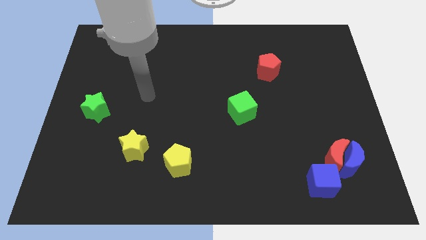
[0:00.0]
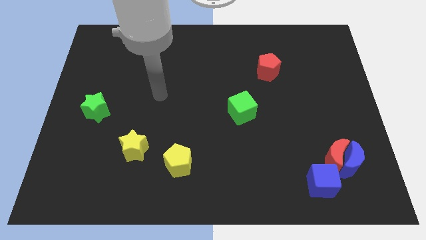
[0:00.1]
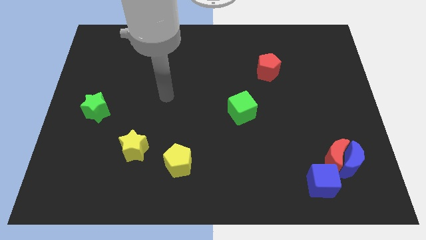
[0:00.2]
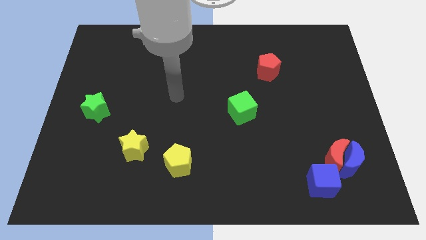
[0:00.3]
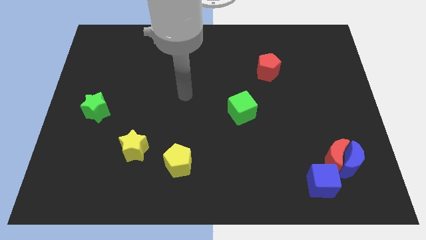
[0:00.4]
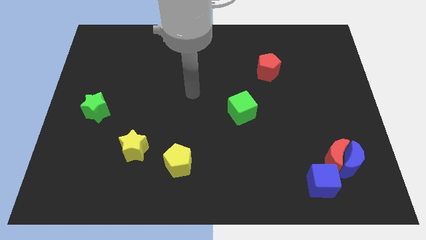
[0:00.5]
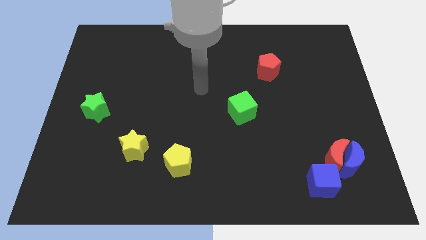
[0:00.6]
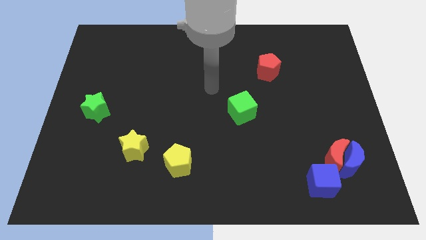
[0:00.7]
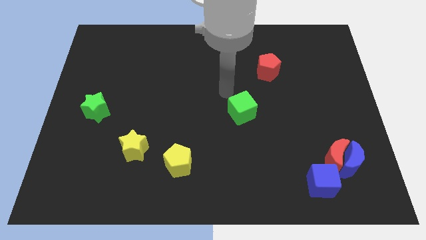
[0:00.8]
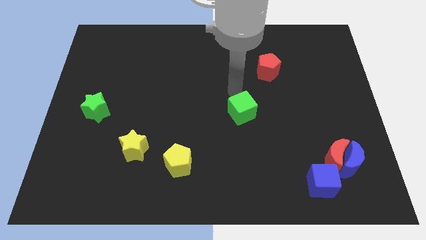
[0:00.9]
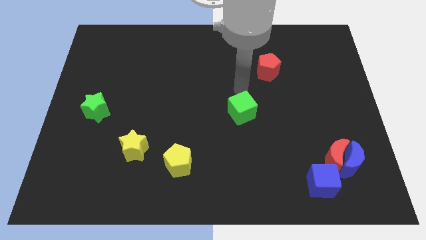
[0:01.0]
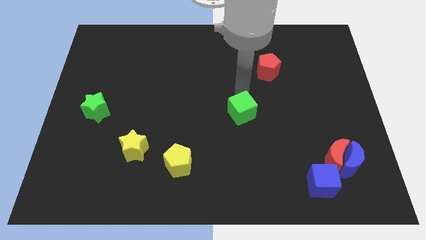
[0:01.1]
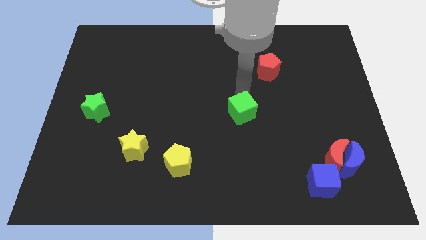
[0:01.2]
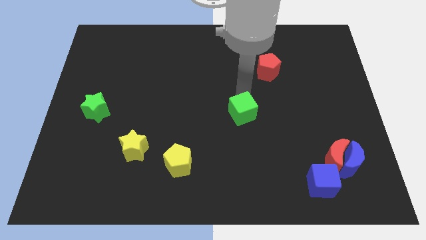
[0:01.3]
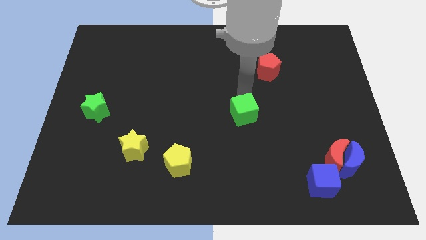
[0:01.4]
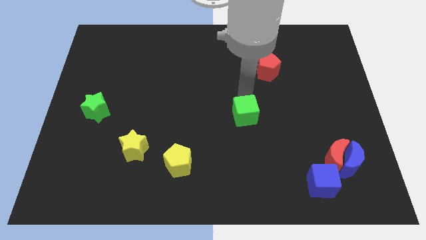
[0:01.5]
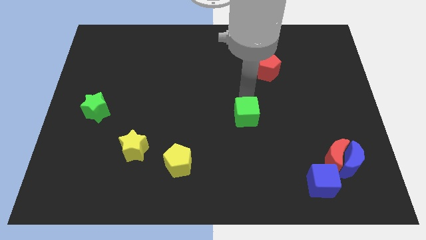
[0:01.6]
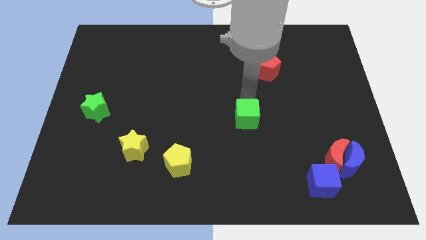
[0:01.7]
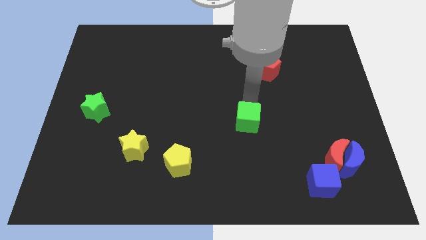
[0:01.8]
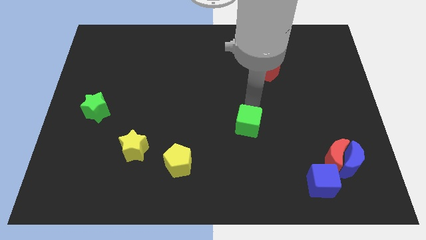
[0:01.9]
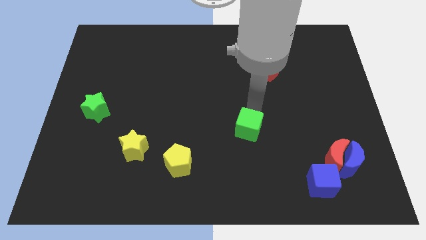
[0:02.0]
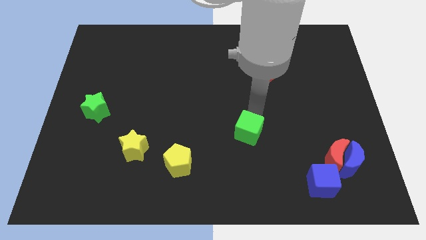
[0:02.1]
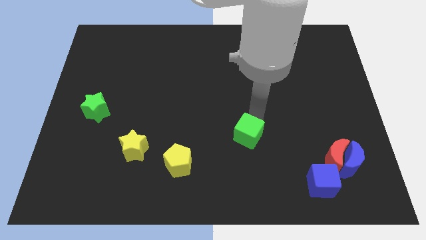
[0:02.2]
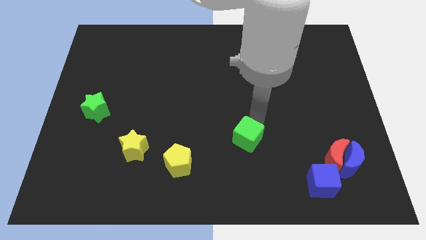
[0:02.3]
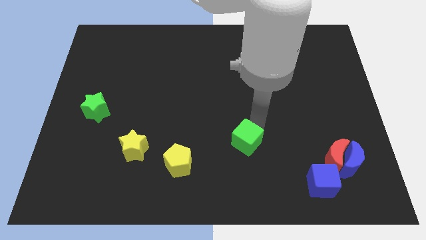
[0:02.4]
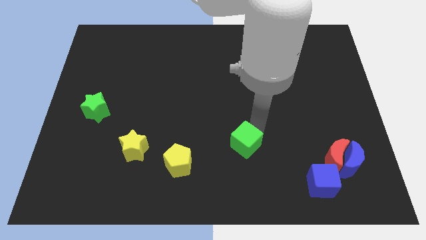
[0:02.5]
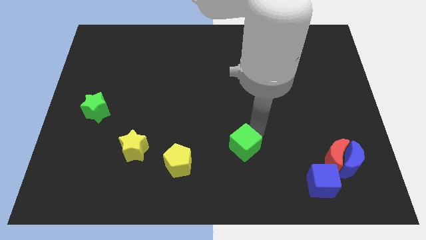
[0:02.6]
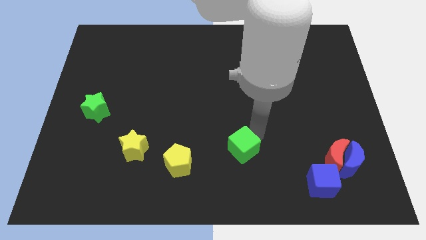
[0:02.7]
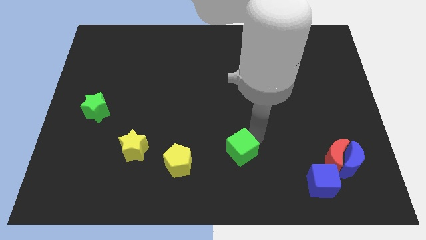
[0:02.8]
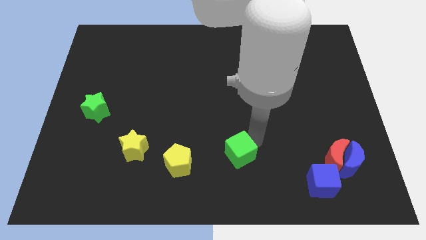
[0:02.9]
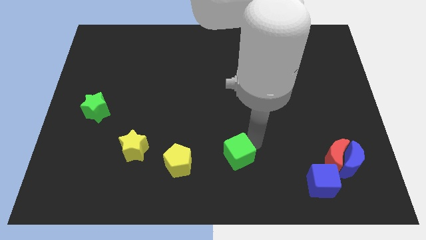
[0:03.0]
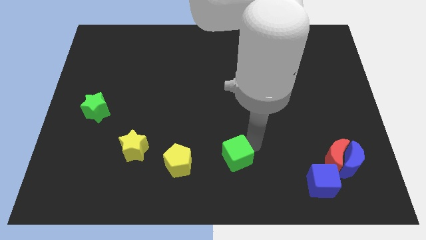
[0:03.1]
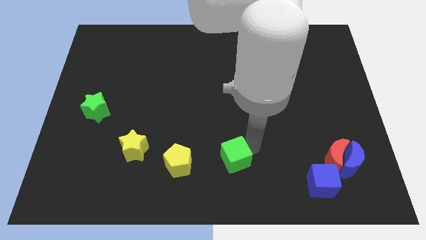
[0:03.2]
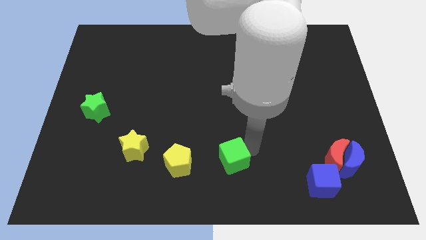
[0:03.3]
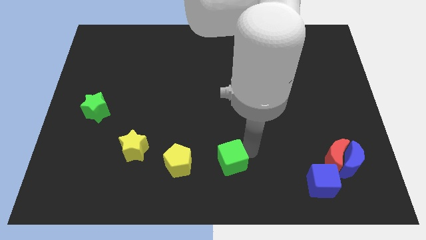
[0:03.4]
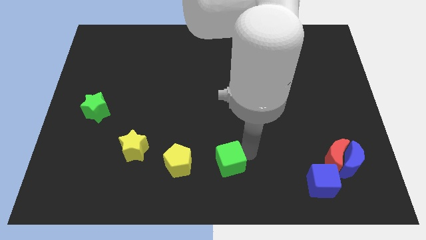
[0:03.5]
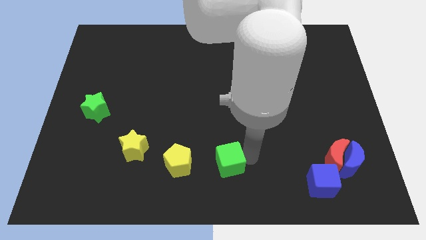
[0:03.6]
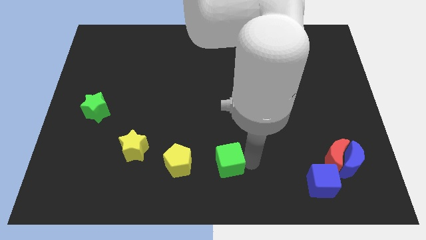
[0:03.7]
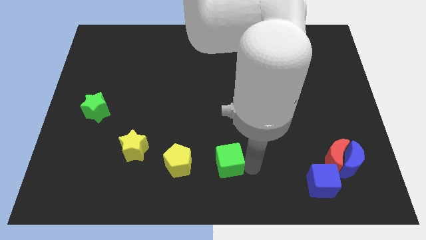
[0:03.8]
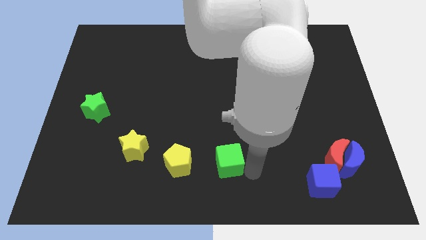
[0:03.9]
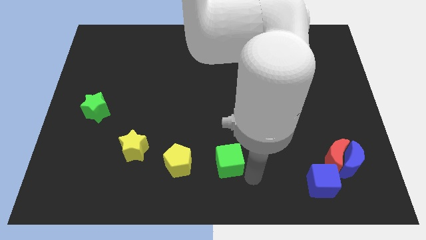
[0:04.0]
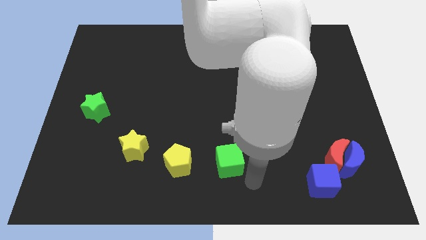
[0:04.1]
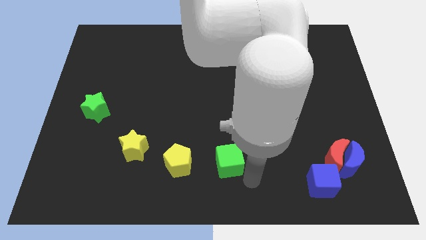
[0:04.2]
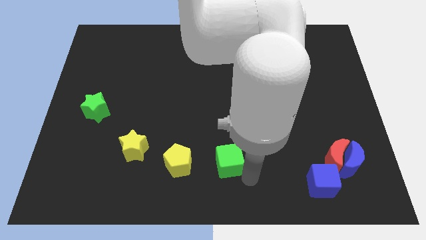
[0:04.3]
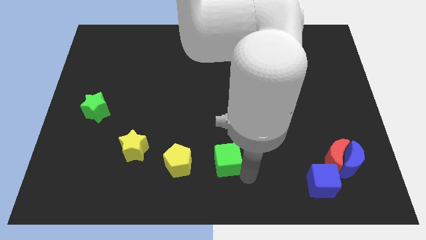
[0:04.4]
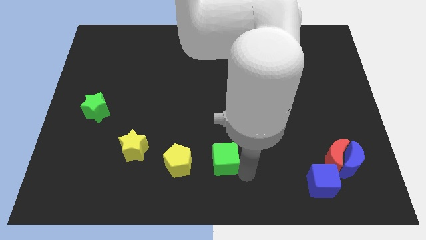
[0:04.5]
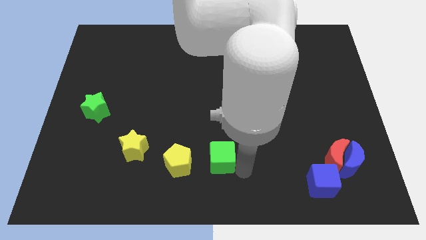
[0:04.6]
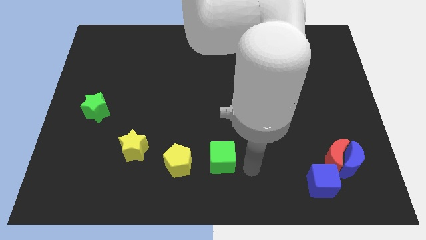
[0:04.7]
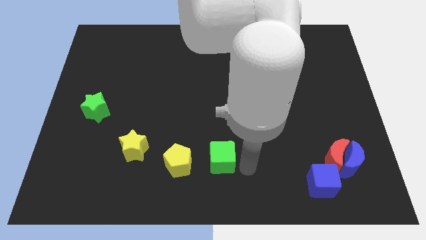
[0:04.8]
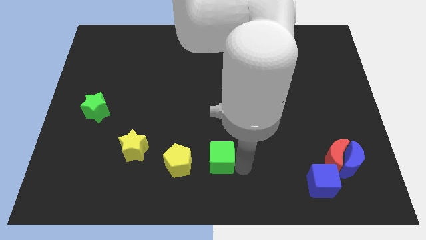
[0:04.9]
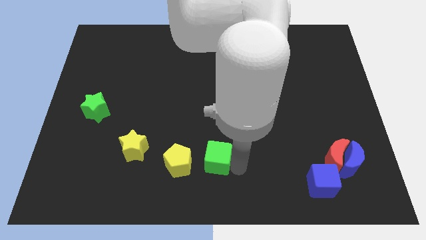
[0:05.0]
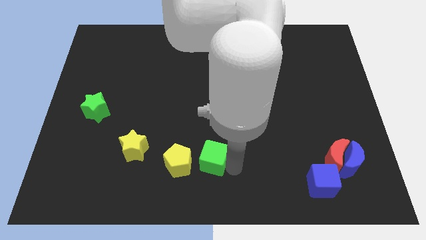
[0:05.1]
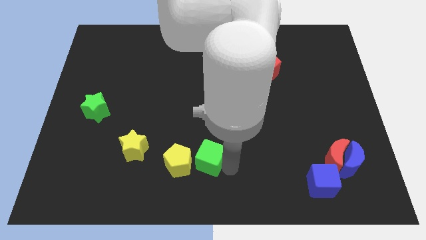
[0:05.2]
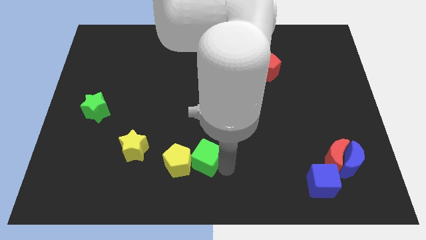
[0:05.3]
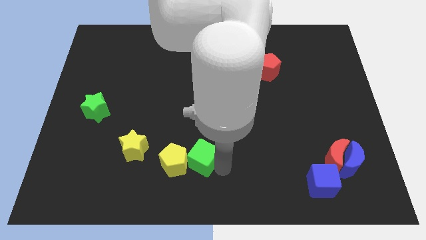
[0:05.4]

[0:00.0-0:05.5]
push the green cube to the right side of the yellow star

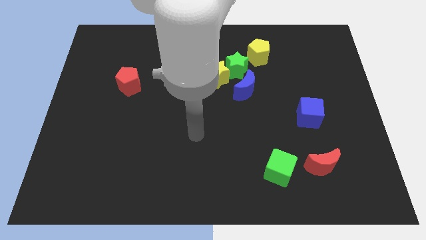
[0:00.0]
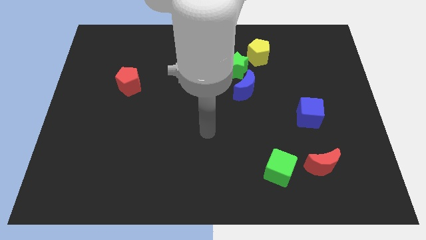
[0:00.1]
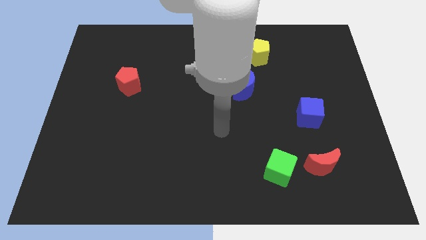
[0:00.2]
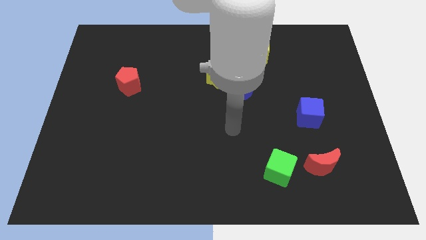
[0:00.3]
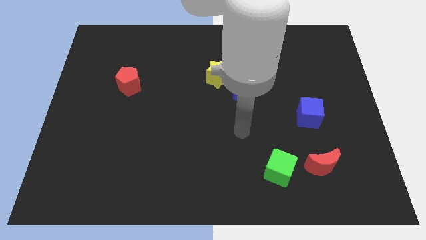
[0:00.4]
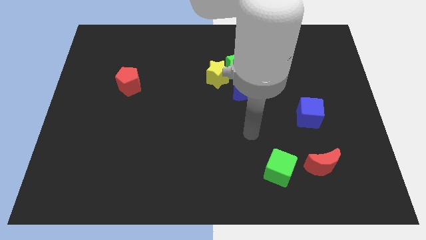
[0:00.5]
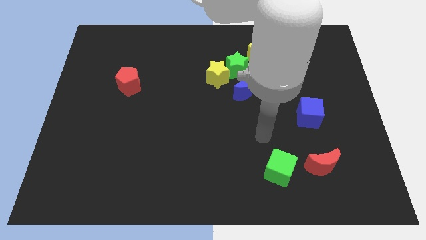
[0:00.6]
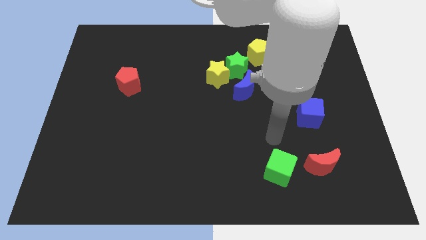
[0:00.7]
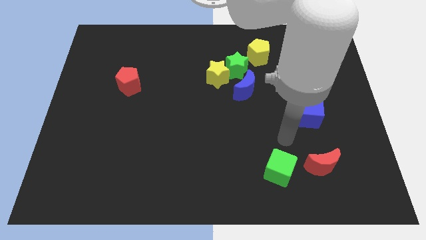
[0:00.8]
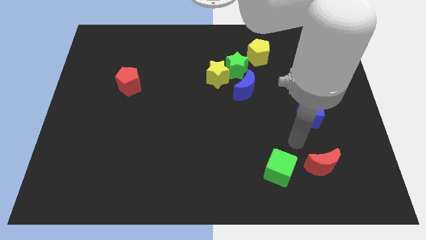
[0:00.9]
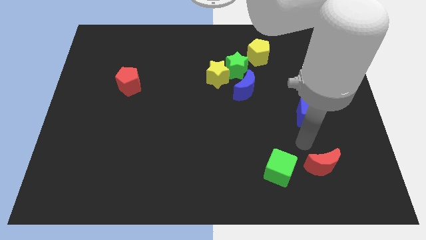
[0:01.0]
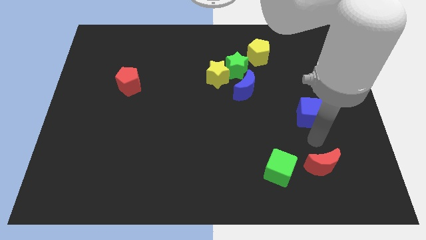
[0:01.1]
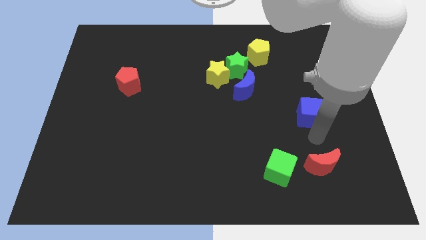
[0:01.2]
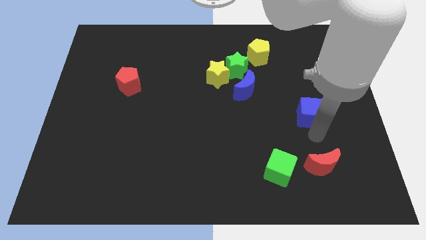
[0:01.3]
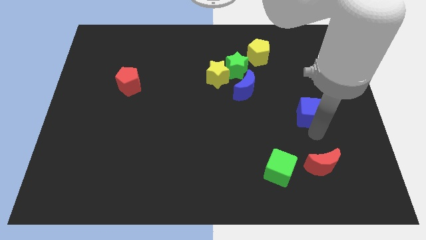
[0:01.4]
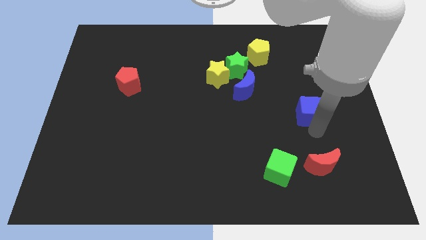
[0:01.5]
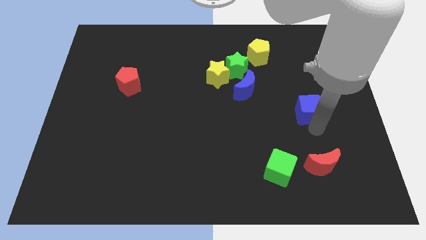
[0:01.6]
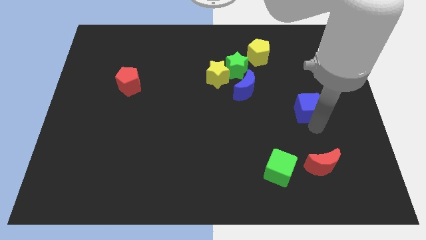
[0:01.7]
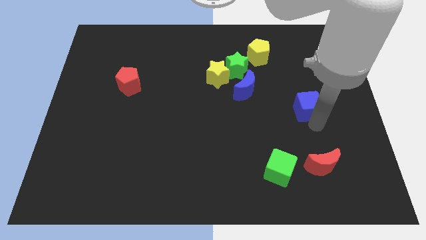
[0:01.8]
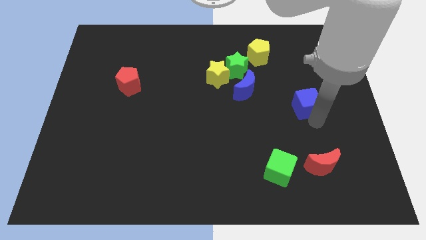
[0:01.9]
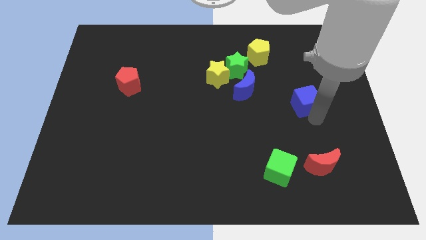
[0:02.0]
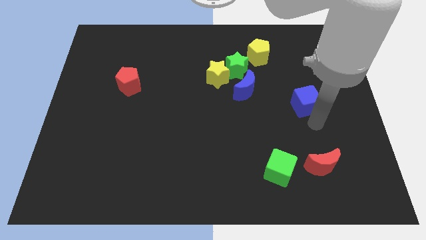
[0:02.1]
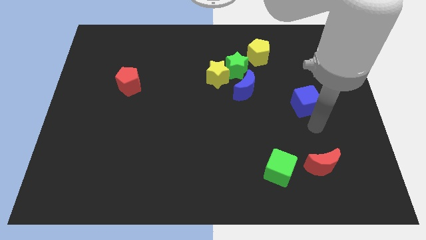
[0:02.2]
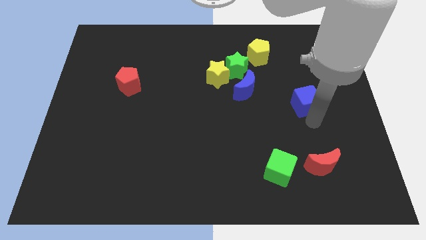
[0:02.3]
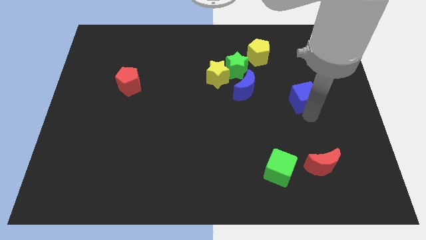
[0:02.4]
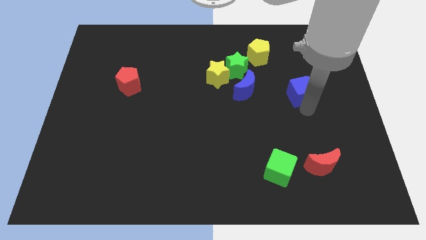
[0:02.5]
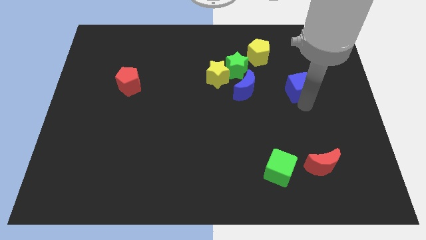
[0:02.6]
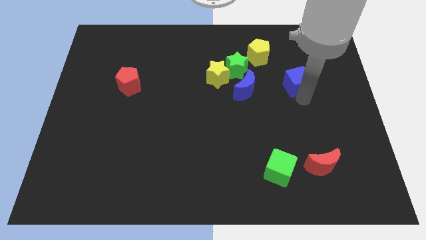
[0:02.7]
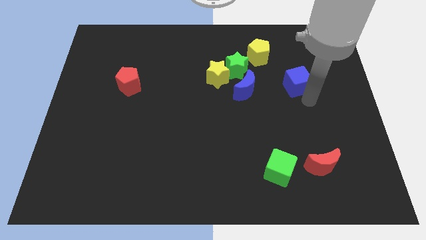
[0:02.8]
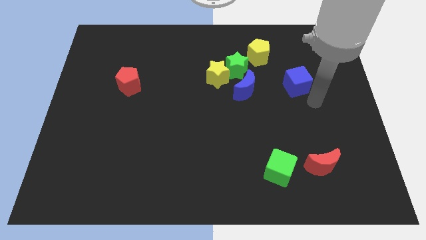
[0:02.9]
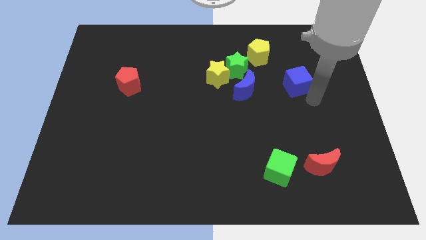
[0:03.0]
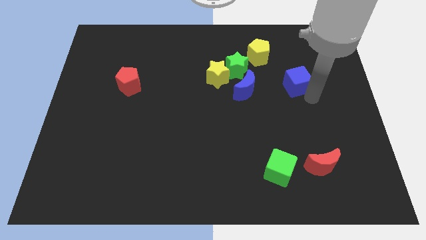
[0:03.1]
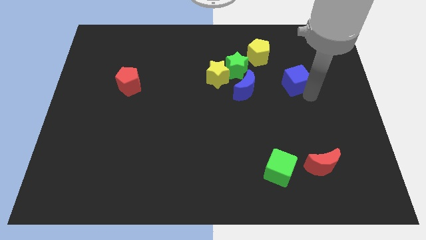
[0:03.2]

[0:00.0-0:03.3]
put the blue cube to the bottom right side of the yellow pentagon
